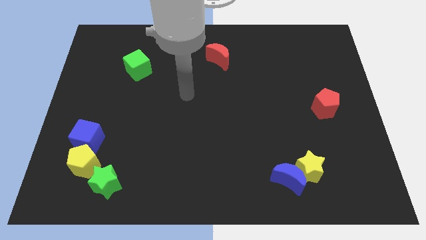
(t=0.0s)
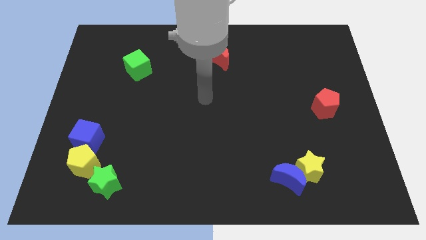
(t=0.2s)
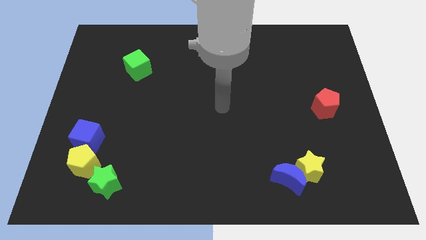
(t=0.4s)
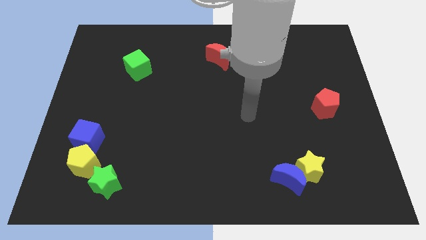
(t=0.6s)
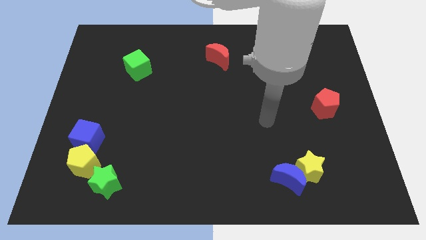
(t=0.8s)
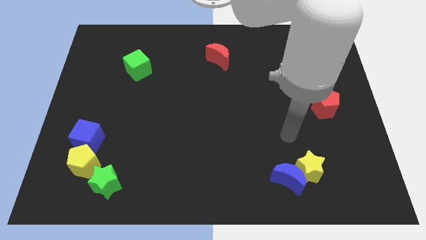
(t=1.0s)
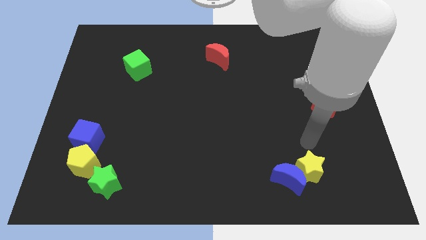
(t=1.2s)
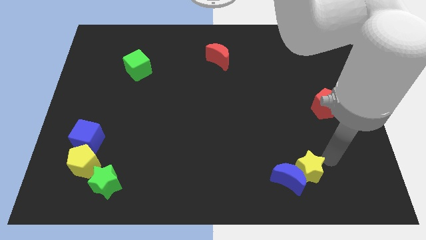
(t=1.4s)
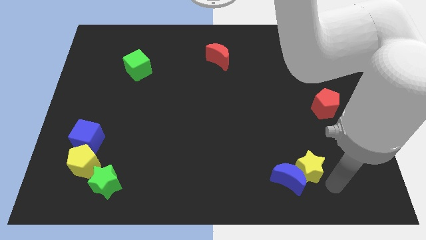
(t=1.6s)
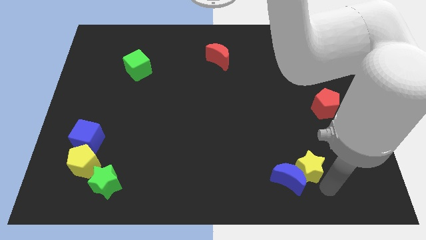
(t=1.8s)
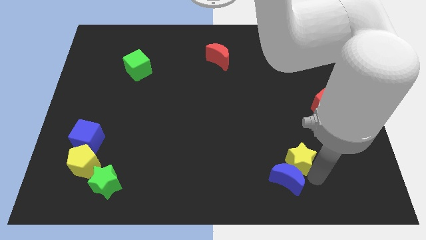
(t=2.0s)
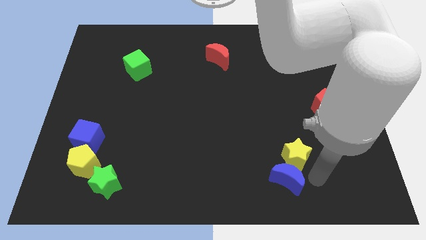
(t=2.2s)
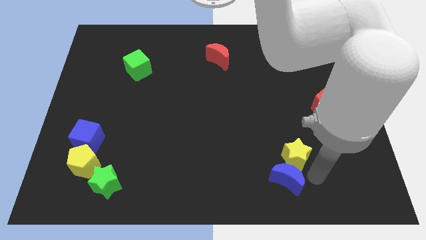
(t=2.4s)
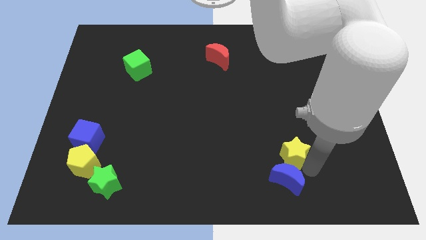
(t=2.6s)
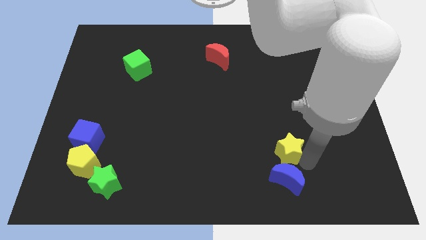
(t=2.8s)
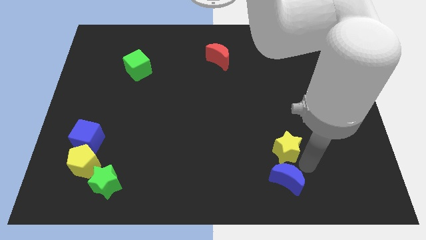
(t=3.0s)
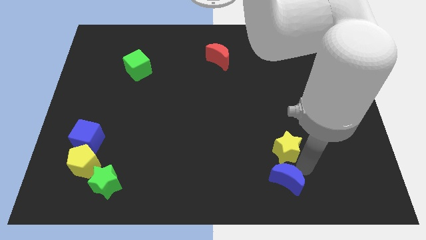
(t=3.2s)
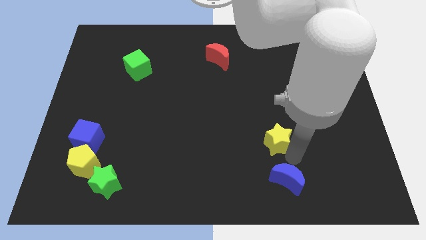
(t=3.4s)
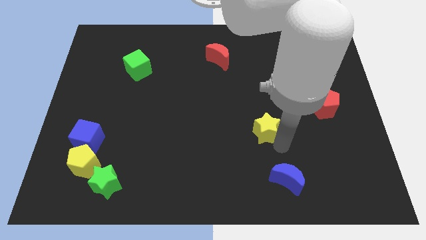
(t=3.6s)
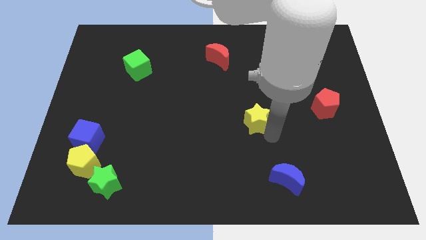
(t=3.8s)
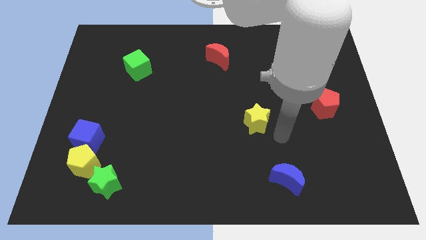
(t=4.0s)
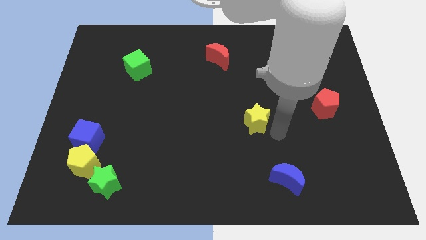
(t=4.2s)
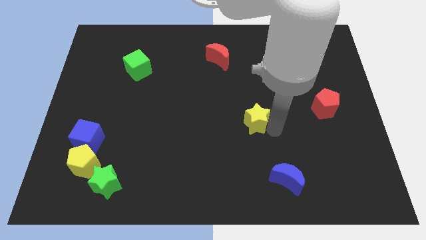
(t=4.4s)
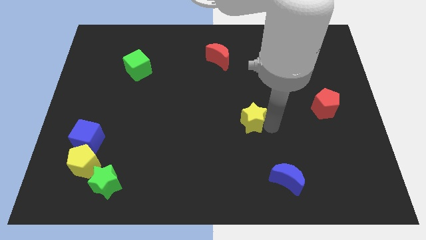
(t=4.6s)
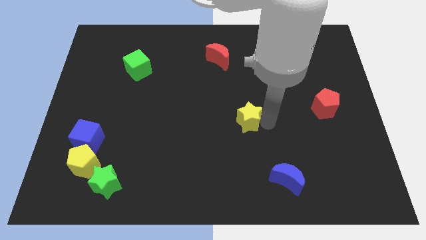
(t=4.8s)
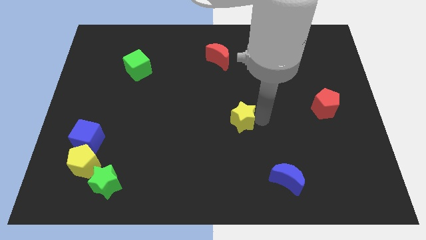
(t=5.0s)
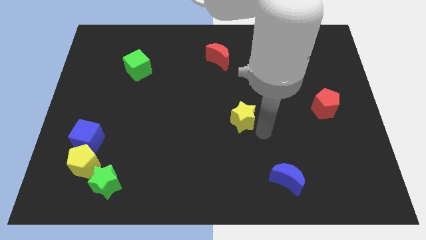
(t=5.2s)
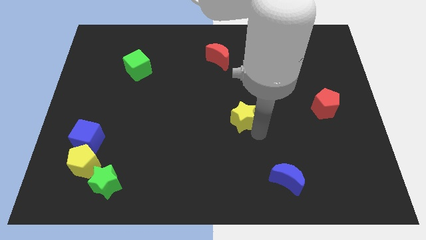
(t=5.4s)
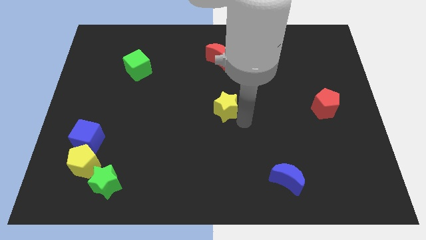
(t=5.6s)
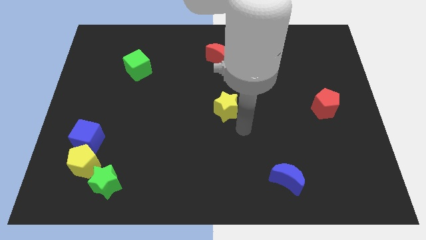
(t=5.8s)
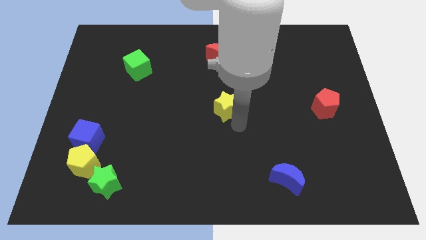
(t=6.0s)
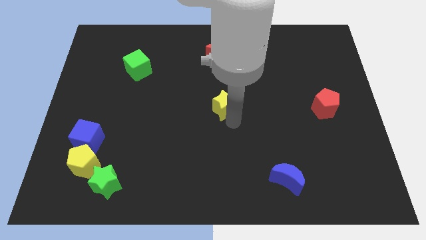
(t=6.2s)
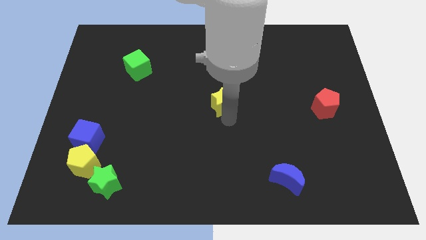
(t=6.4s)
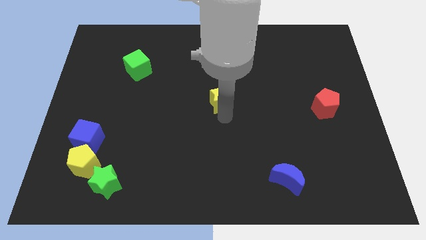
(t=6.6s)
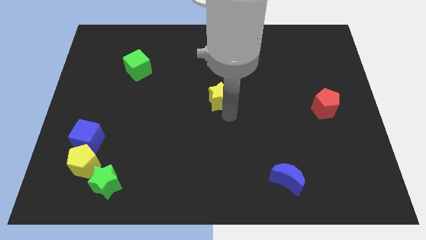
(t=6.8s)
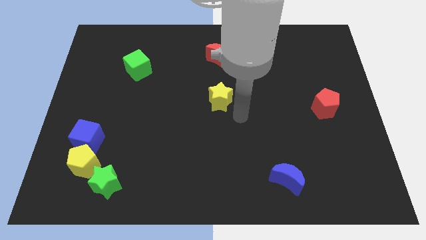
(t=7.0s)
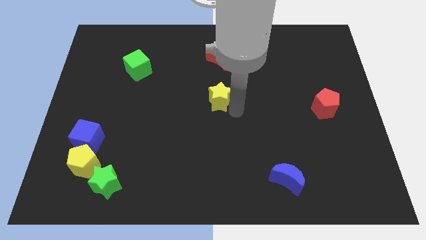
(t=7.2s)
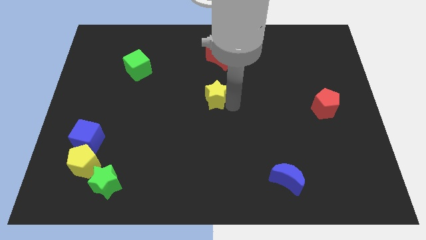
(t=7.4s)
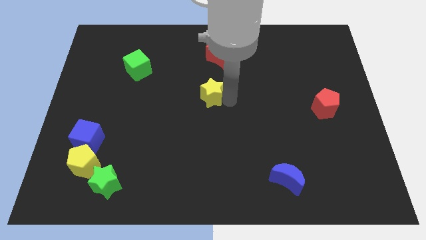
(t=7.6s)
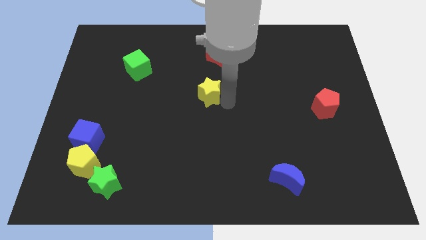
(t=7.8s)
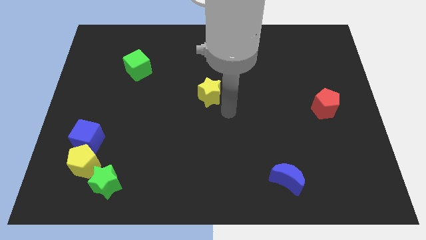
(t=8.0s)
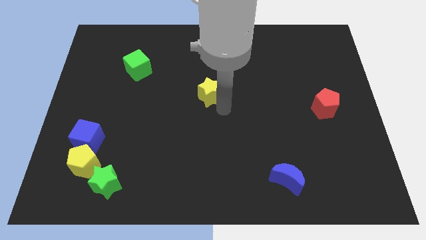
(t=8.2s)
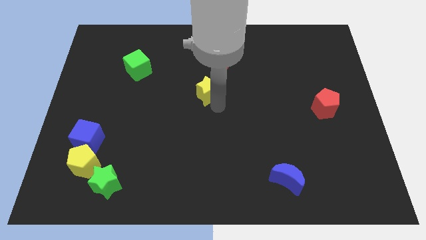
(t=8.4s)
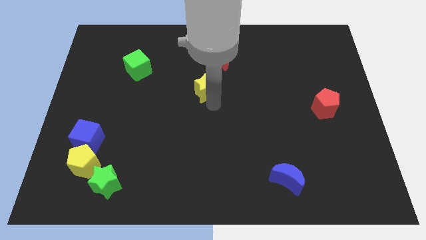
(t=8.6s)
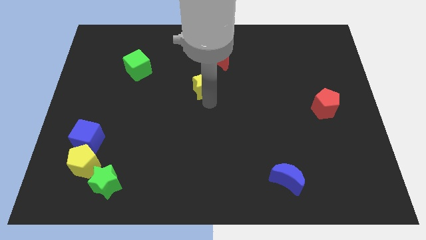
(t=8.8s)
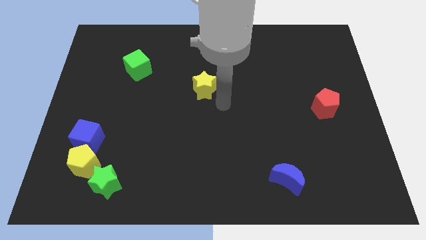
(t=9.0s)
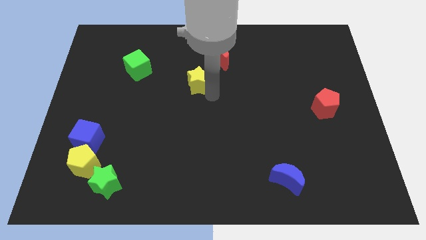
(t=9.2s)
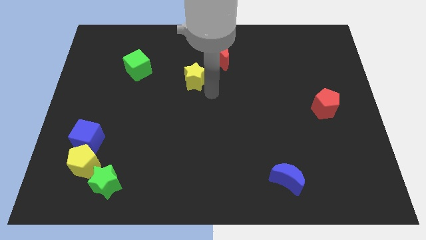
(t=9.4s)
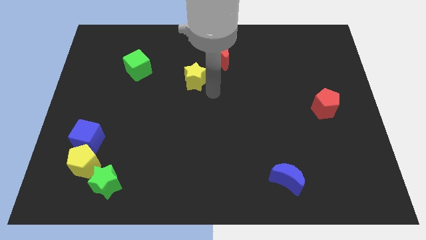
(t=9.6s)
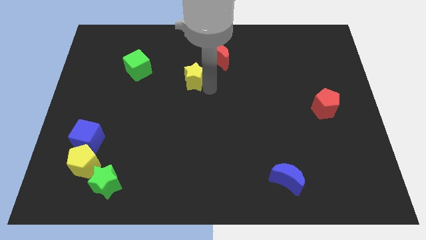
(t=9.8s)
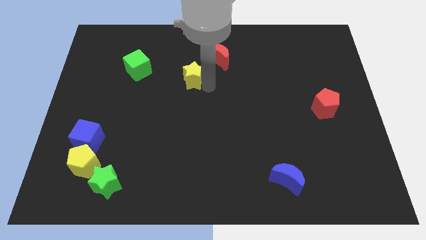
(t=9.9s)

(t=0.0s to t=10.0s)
put the yellow star to the right side of the green cube

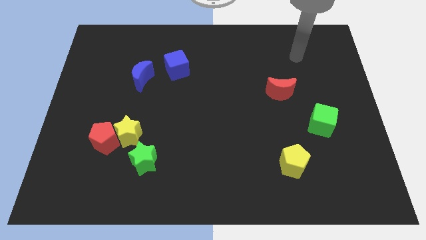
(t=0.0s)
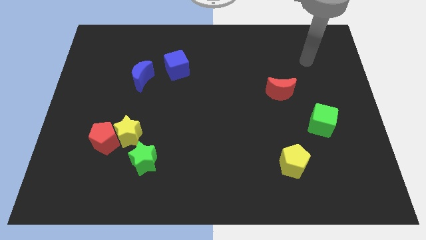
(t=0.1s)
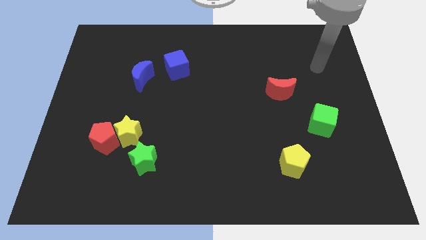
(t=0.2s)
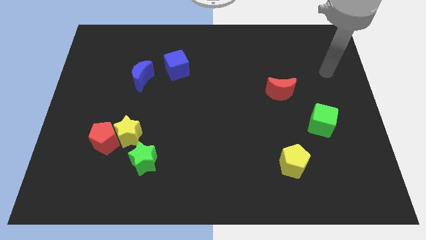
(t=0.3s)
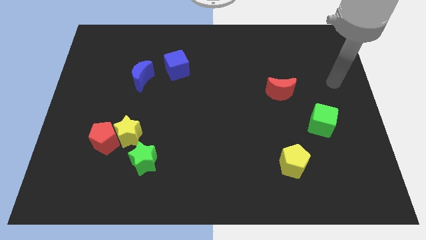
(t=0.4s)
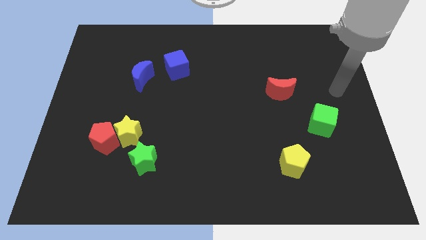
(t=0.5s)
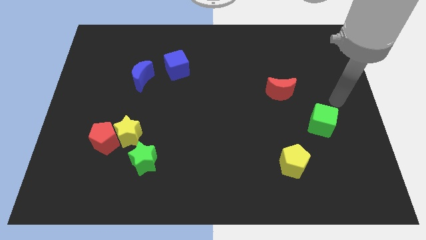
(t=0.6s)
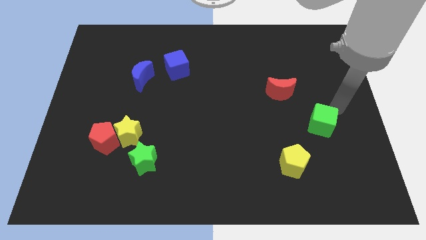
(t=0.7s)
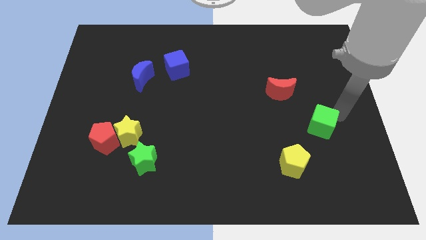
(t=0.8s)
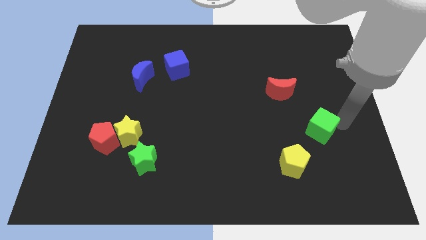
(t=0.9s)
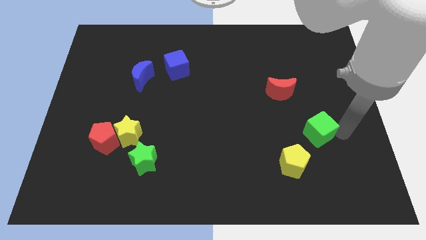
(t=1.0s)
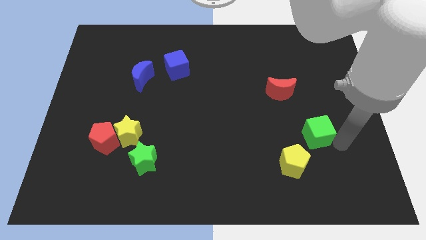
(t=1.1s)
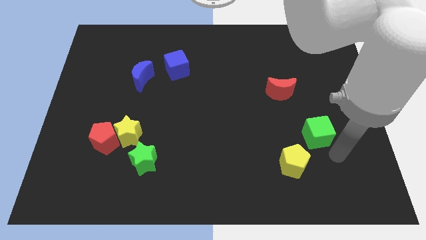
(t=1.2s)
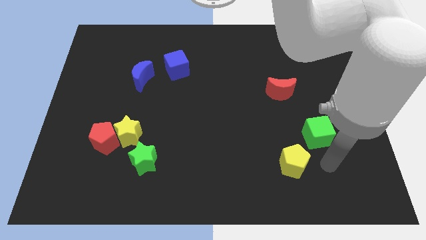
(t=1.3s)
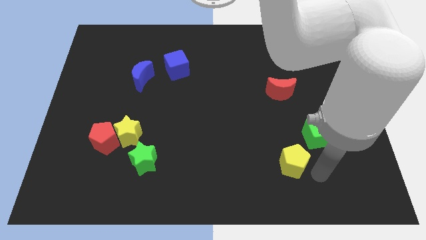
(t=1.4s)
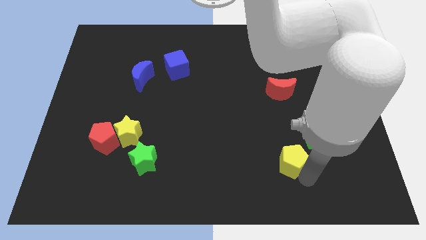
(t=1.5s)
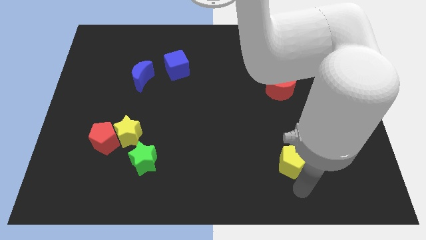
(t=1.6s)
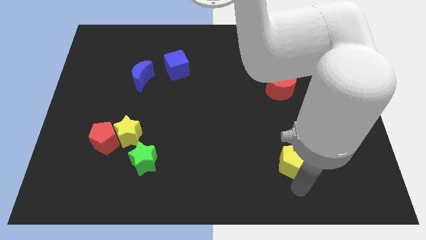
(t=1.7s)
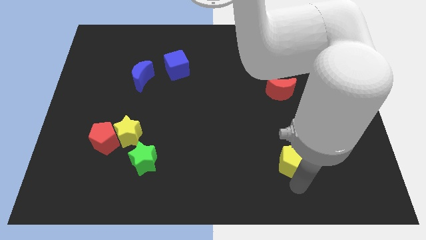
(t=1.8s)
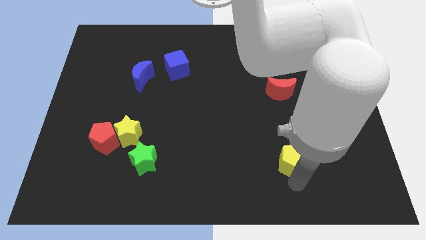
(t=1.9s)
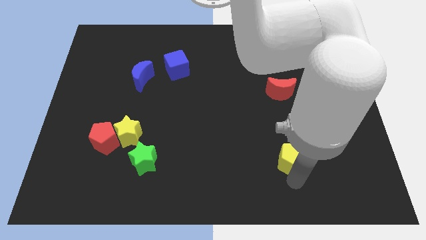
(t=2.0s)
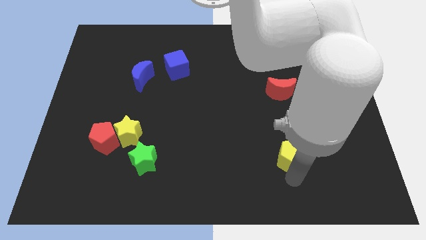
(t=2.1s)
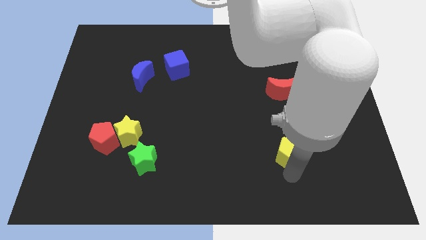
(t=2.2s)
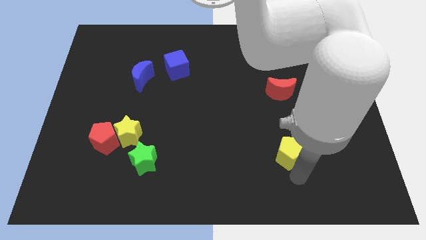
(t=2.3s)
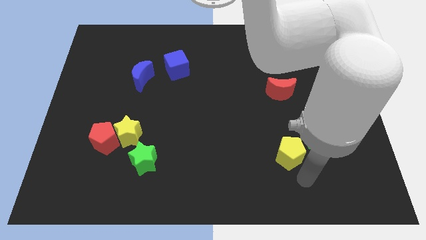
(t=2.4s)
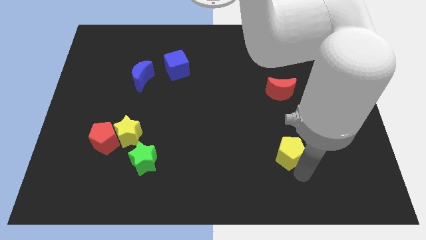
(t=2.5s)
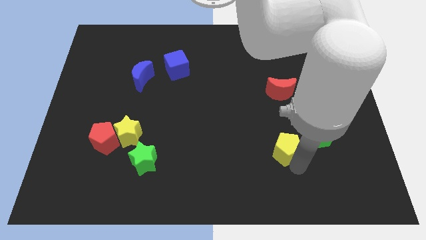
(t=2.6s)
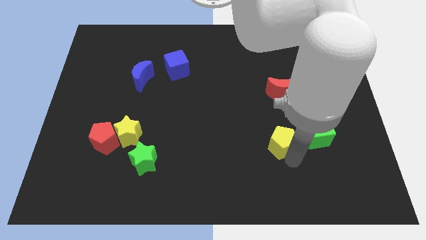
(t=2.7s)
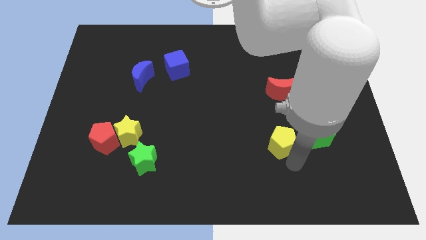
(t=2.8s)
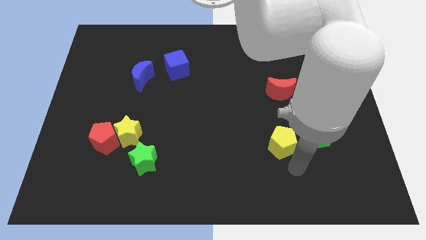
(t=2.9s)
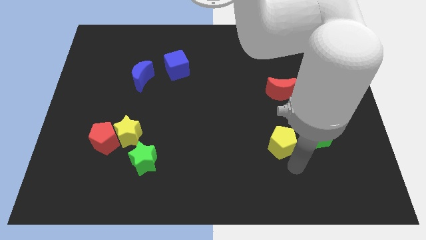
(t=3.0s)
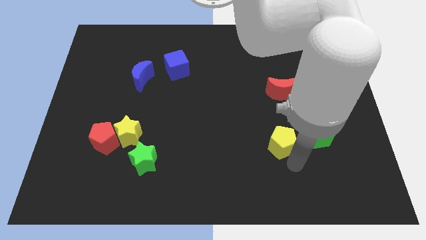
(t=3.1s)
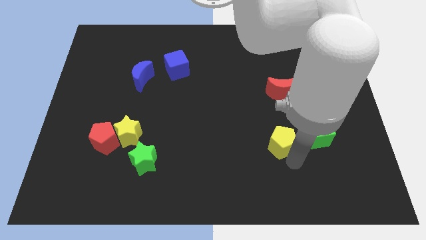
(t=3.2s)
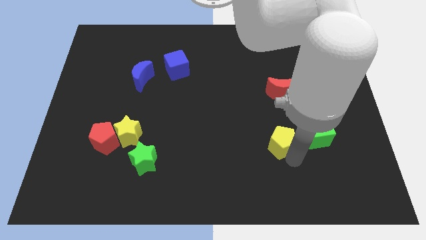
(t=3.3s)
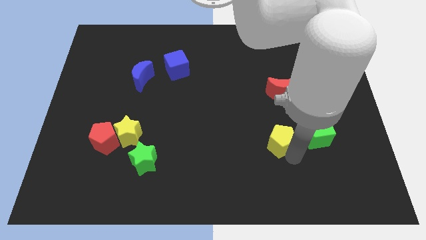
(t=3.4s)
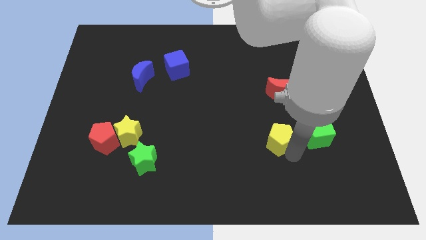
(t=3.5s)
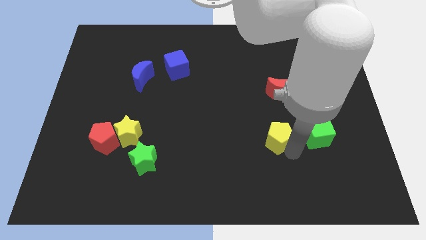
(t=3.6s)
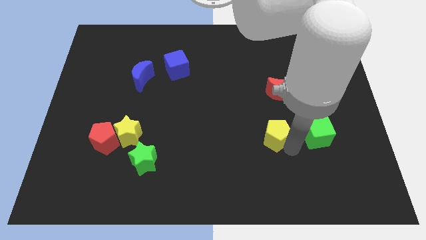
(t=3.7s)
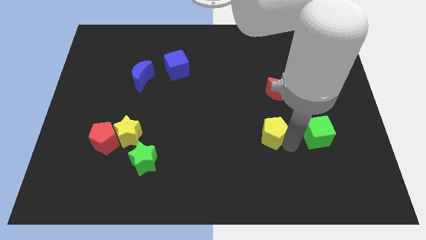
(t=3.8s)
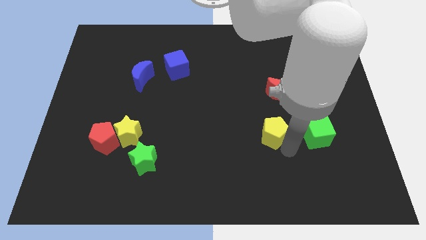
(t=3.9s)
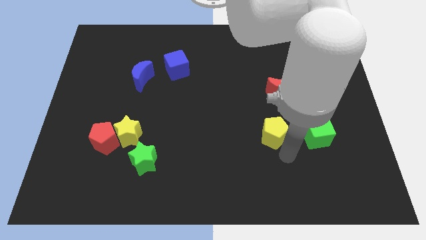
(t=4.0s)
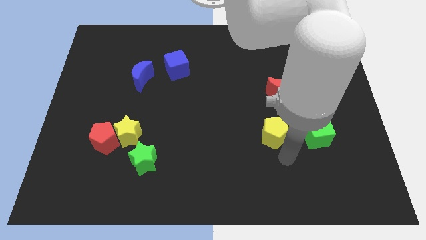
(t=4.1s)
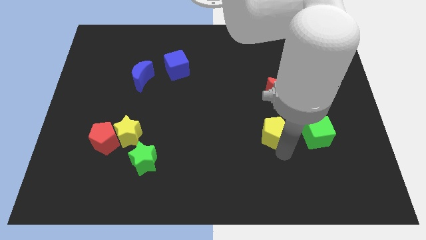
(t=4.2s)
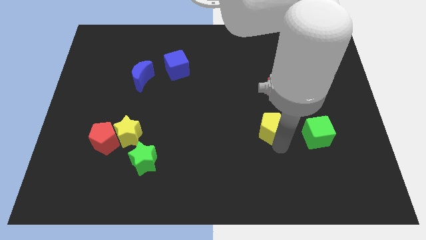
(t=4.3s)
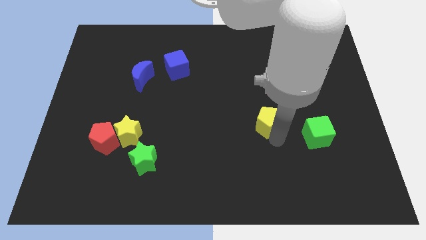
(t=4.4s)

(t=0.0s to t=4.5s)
slide the yellow pentagon diagonally down and to the left of the red moon
